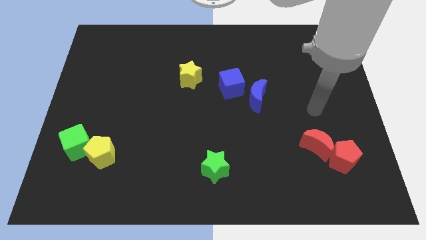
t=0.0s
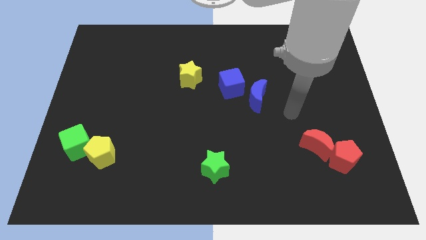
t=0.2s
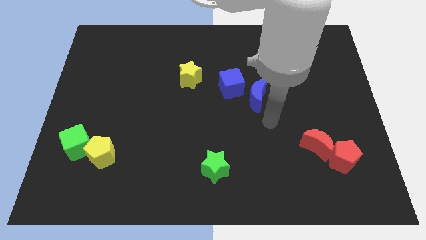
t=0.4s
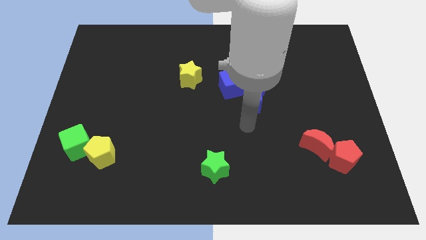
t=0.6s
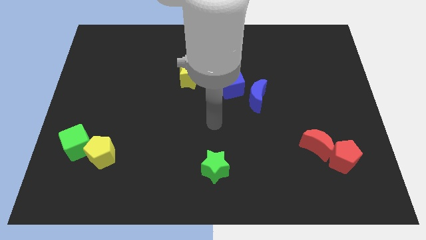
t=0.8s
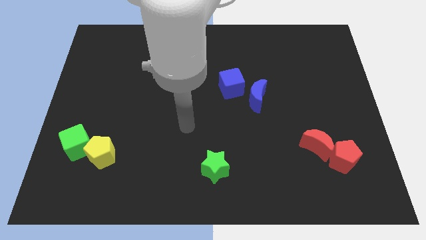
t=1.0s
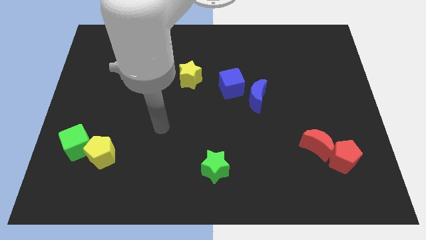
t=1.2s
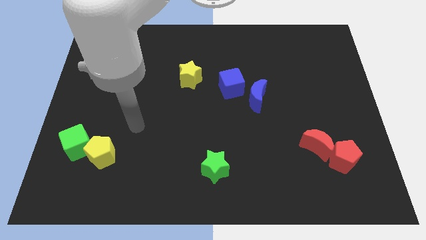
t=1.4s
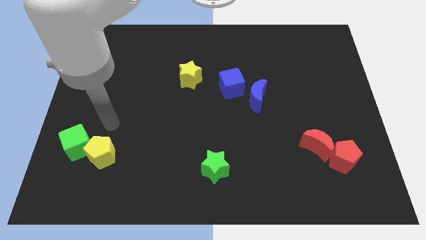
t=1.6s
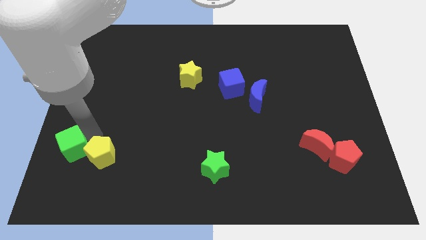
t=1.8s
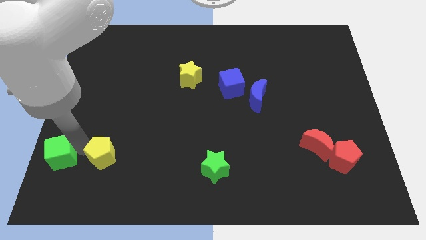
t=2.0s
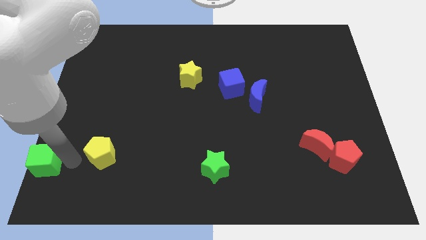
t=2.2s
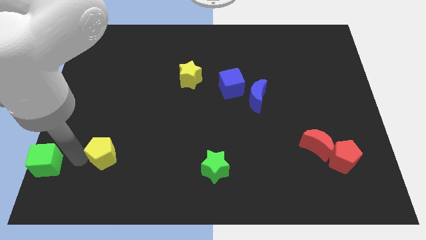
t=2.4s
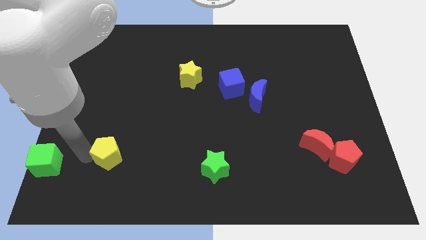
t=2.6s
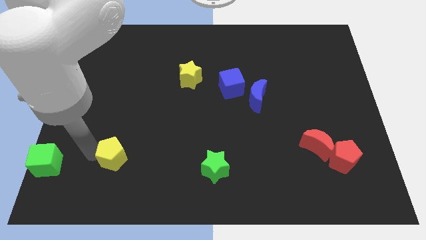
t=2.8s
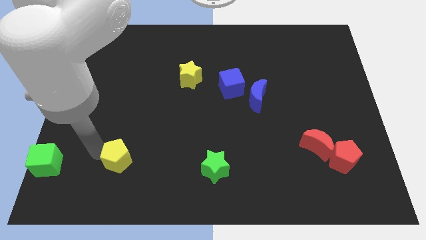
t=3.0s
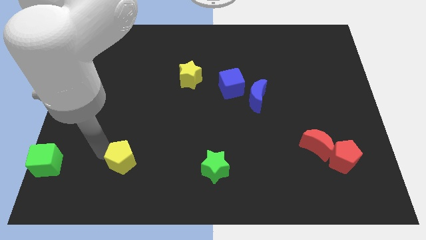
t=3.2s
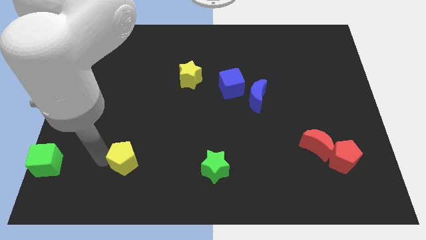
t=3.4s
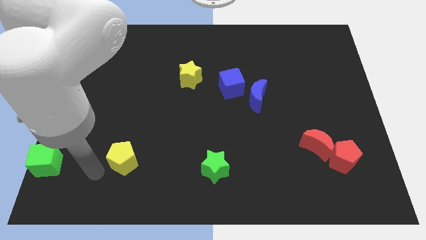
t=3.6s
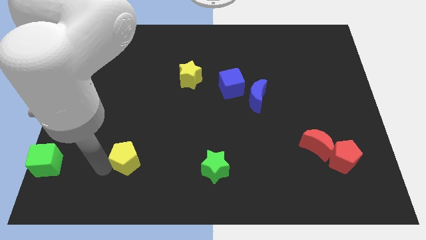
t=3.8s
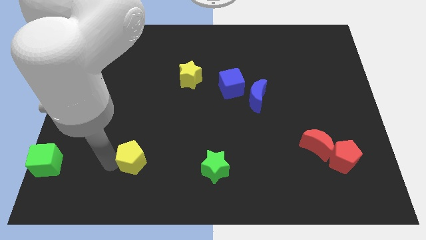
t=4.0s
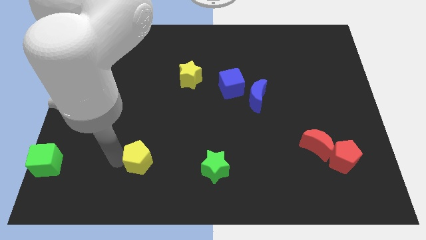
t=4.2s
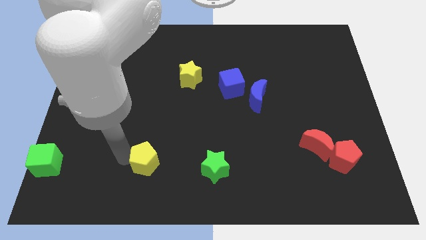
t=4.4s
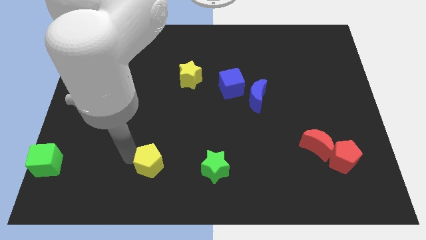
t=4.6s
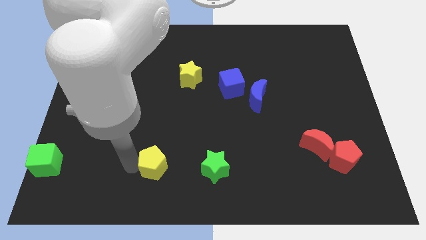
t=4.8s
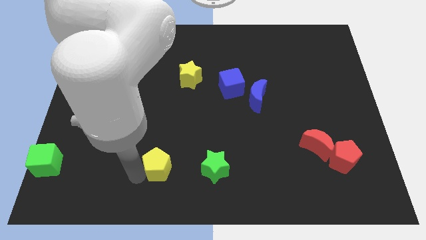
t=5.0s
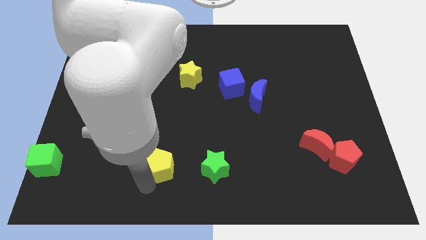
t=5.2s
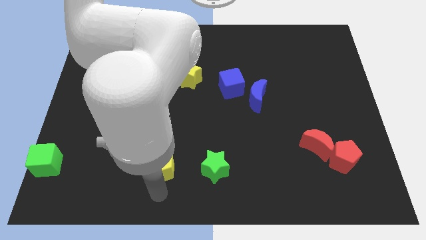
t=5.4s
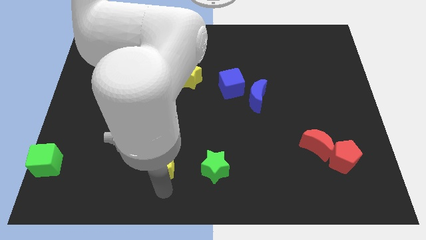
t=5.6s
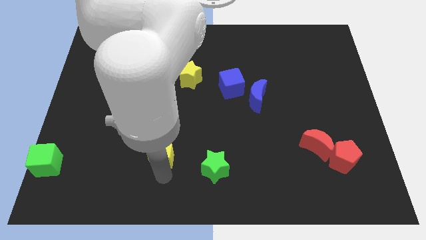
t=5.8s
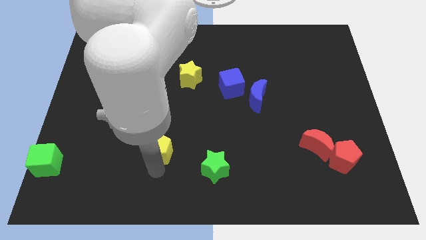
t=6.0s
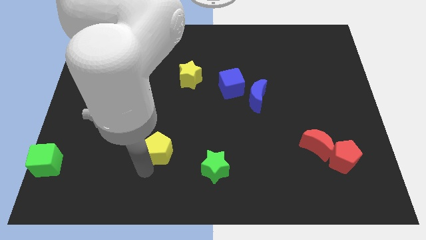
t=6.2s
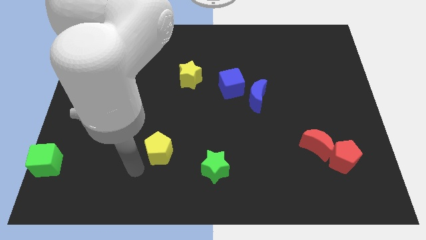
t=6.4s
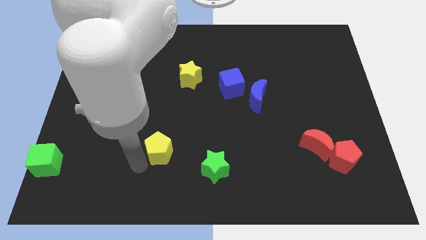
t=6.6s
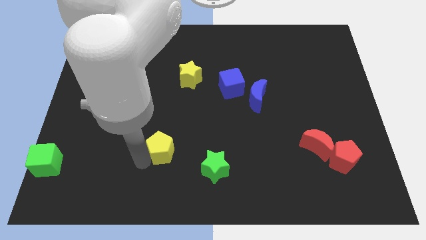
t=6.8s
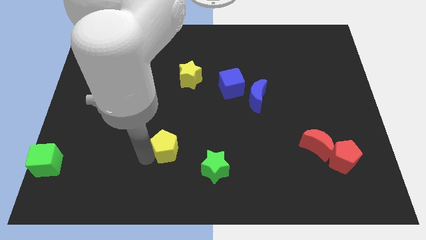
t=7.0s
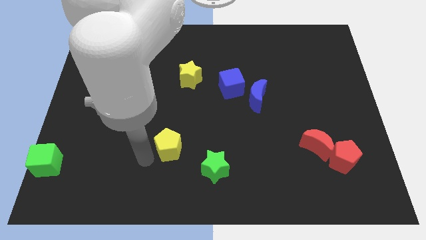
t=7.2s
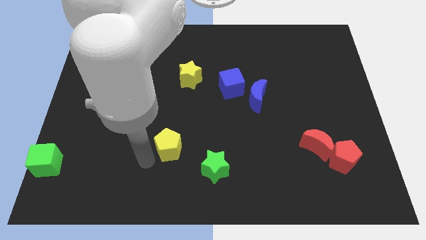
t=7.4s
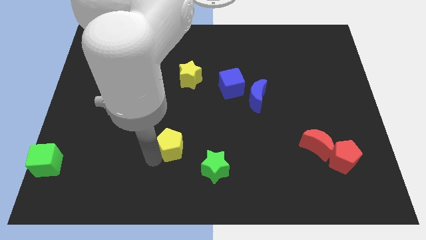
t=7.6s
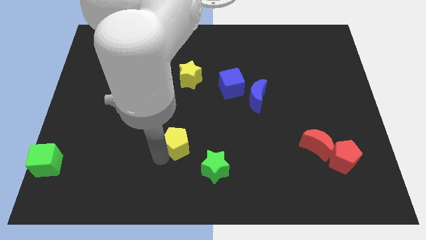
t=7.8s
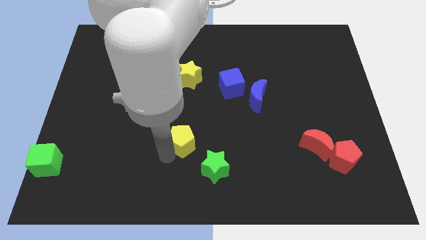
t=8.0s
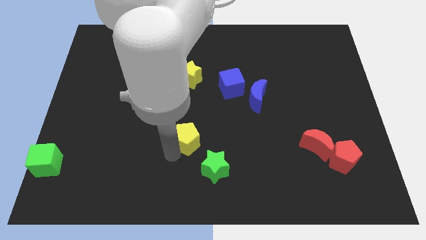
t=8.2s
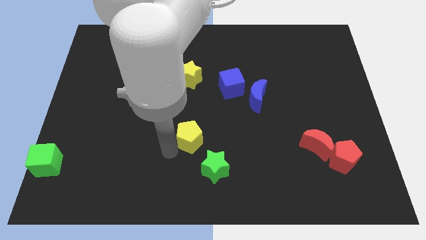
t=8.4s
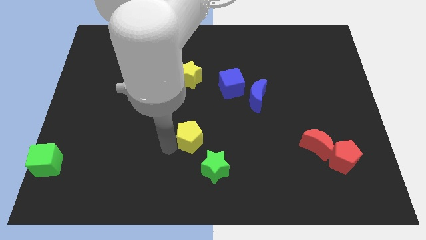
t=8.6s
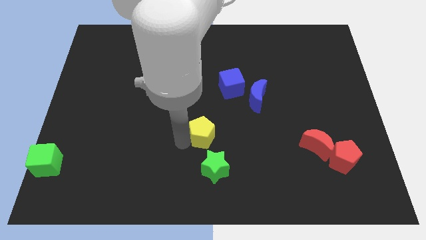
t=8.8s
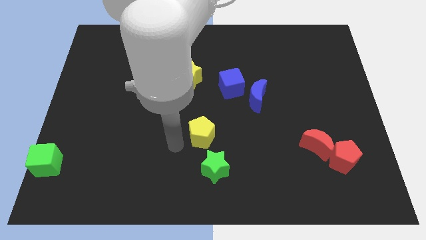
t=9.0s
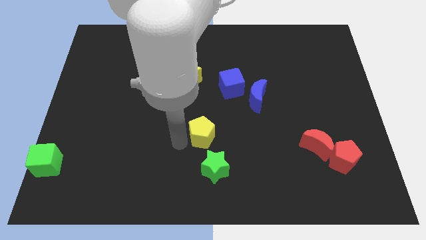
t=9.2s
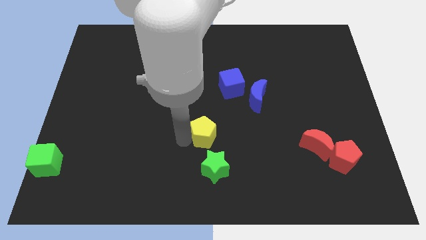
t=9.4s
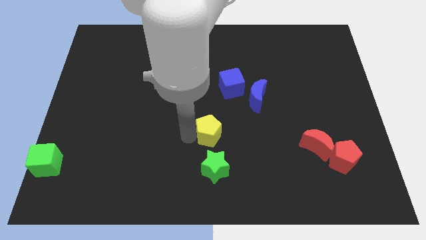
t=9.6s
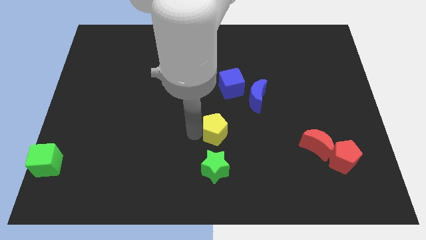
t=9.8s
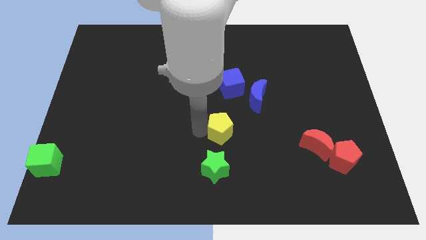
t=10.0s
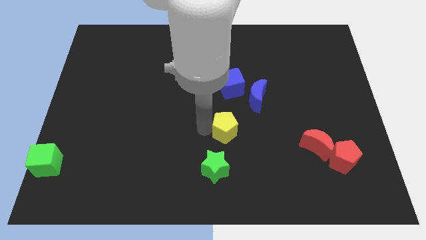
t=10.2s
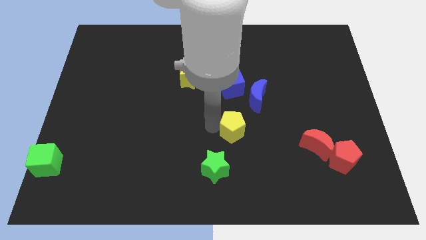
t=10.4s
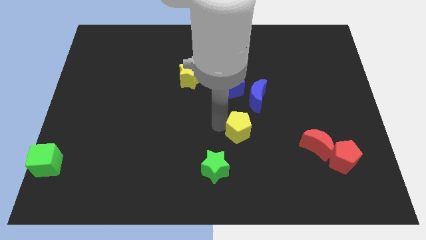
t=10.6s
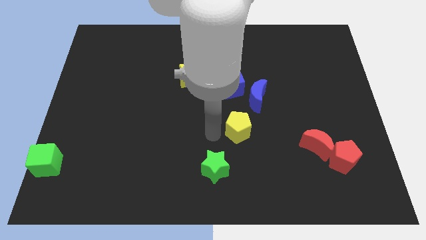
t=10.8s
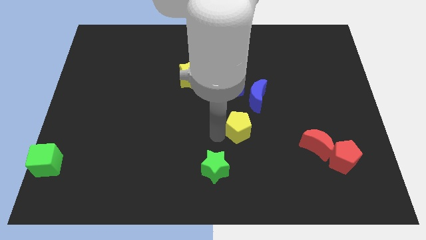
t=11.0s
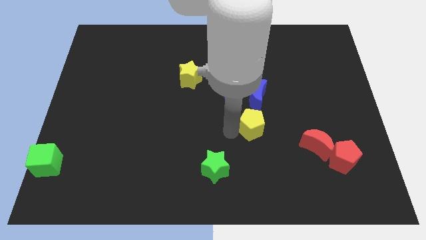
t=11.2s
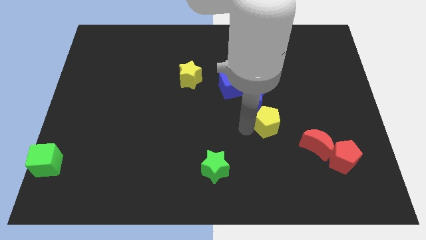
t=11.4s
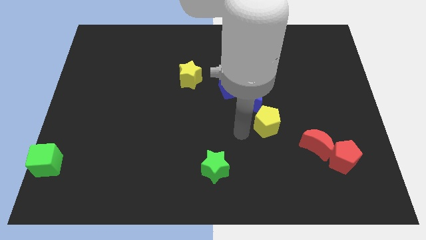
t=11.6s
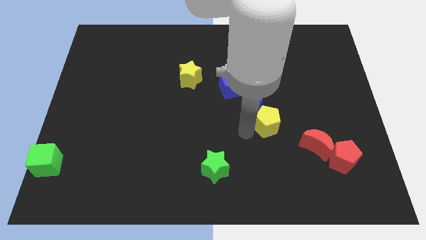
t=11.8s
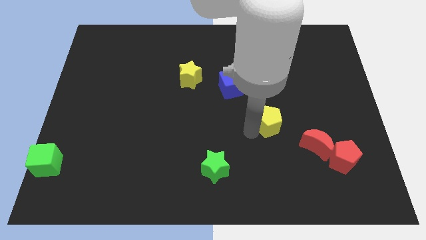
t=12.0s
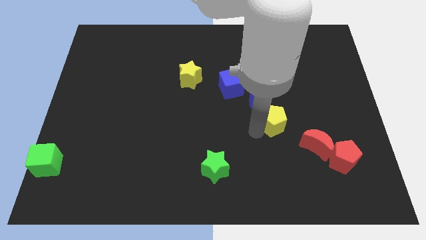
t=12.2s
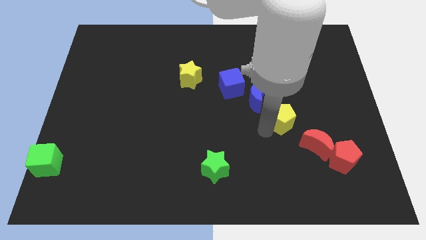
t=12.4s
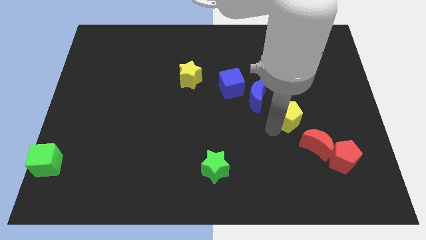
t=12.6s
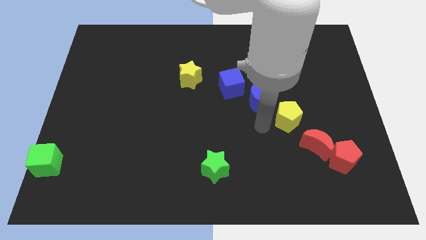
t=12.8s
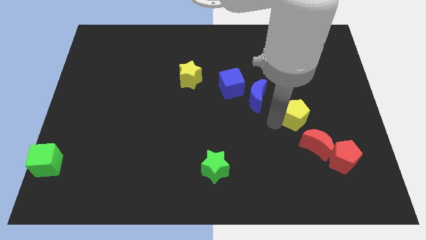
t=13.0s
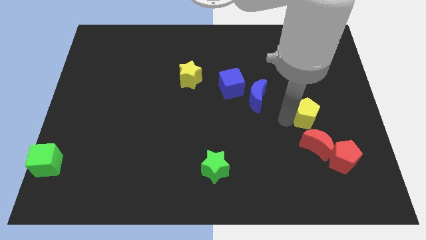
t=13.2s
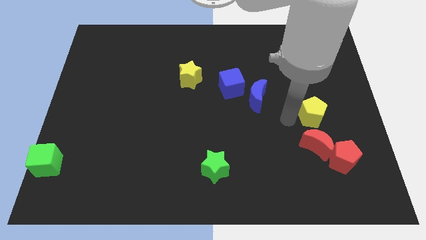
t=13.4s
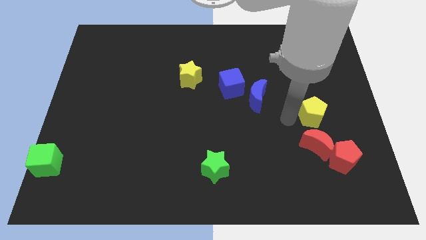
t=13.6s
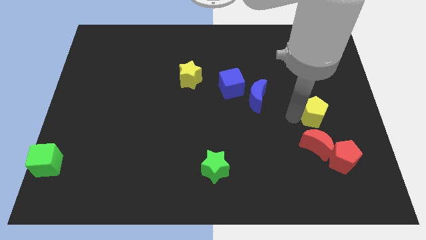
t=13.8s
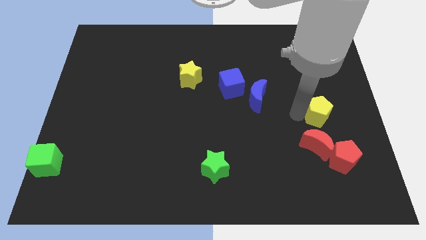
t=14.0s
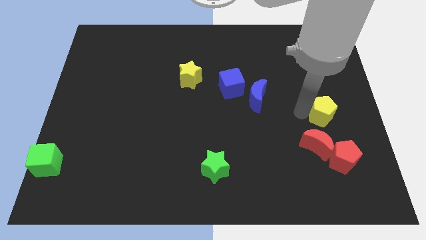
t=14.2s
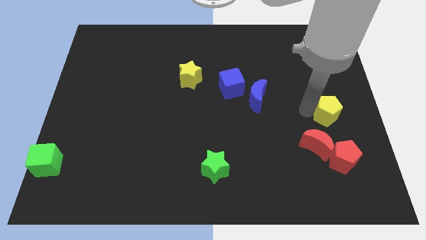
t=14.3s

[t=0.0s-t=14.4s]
slide the yellow pentagon to the center right
